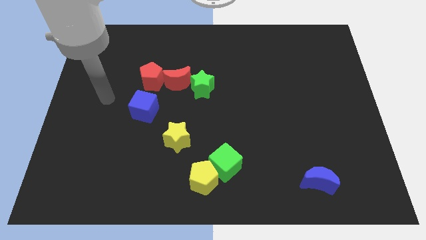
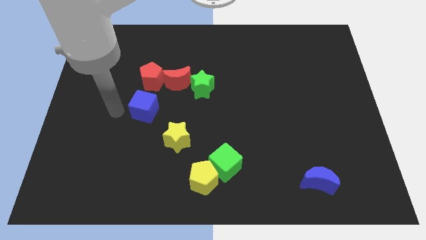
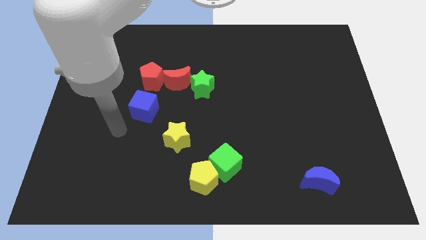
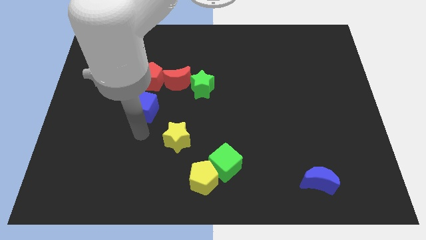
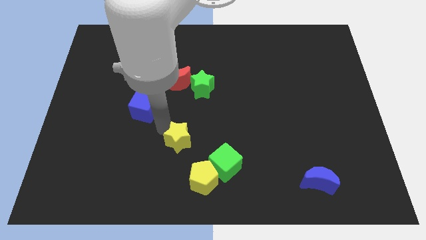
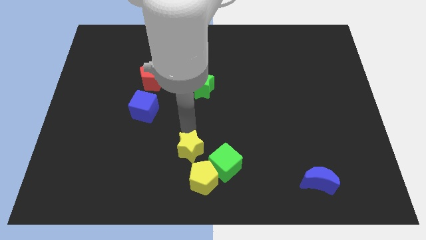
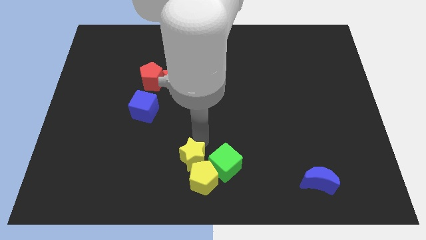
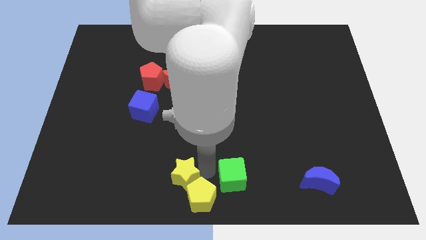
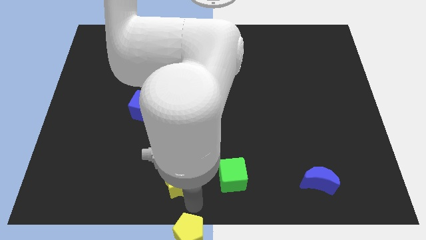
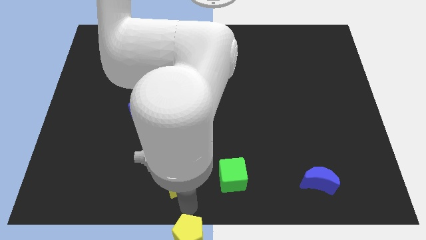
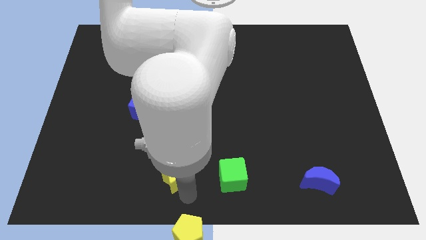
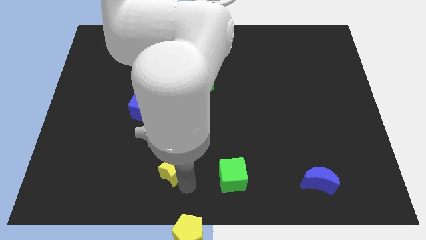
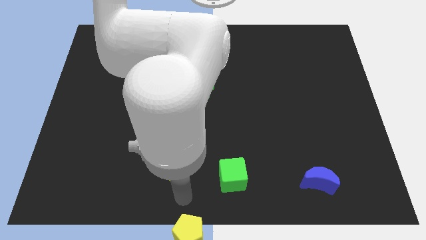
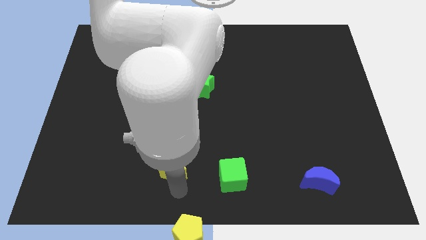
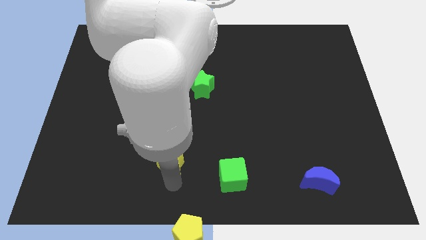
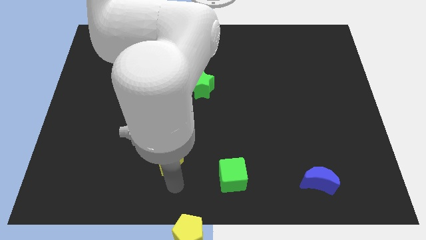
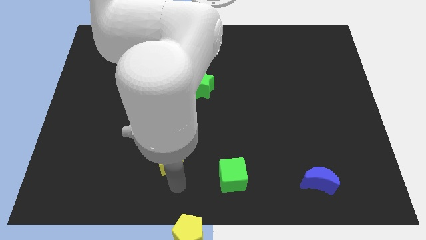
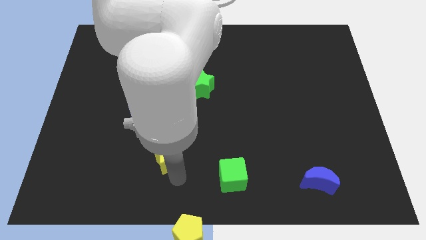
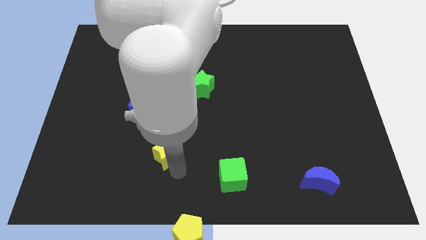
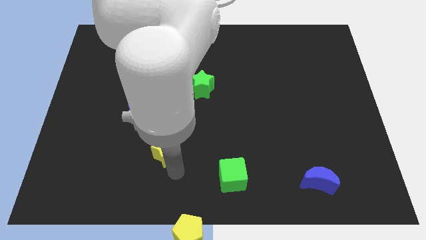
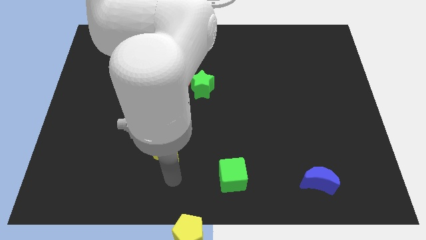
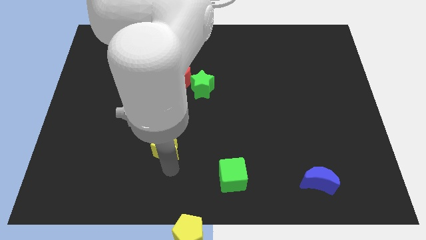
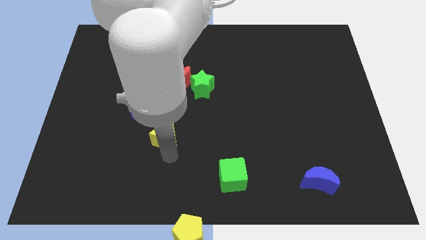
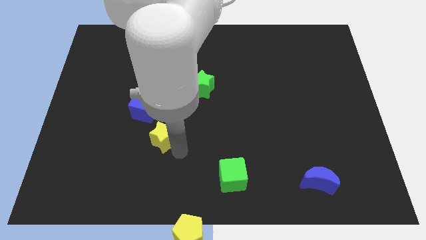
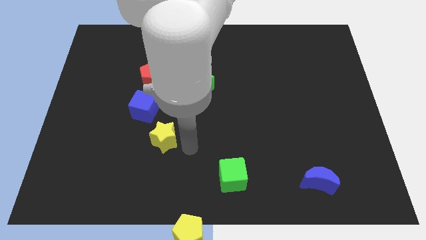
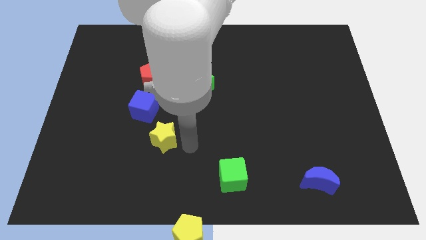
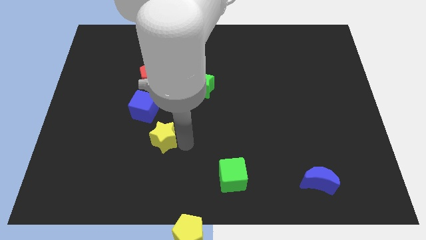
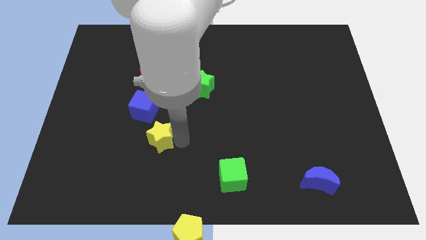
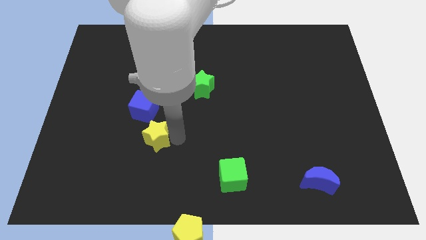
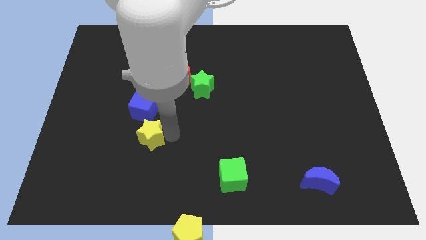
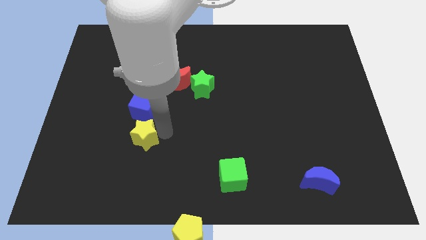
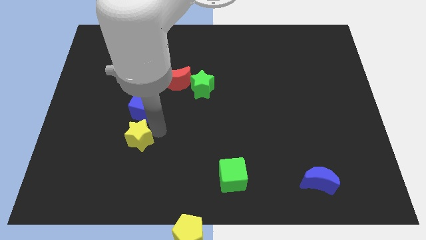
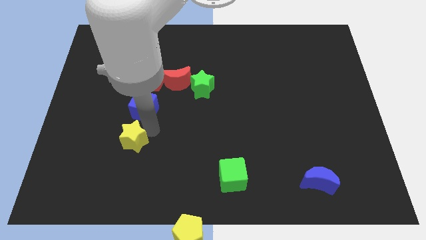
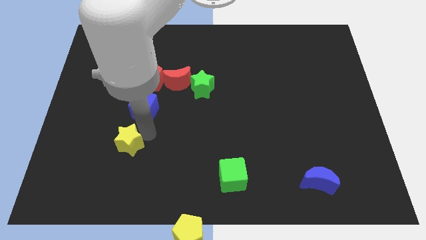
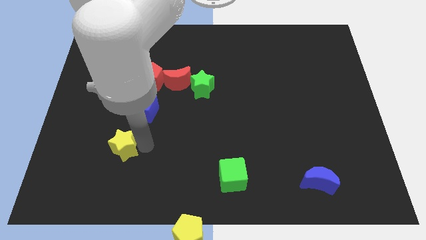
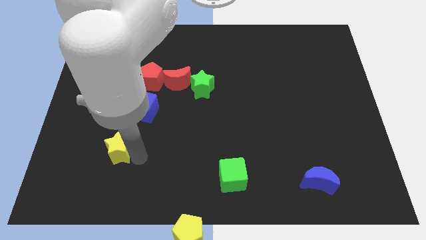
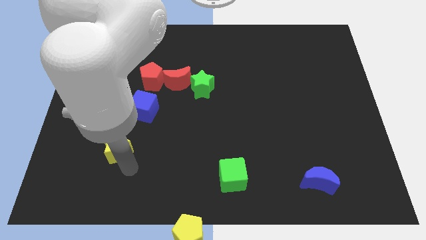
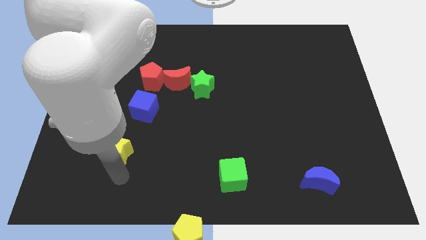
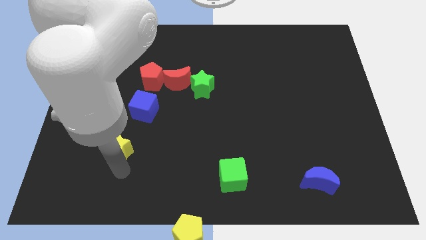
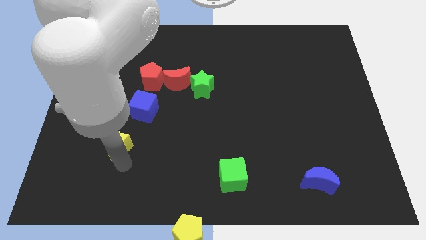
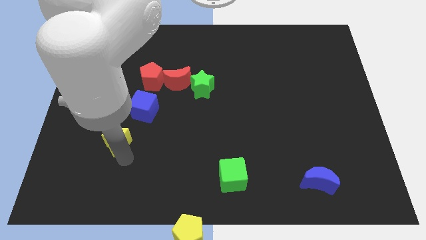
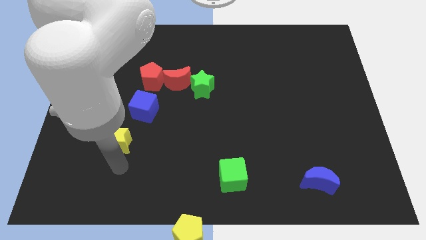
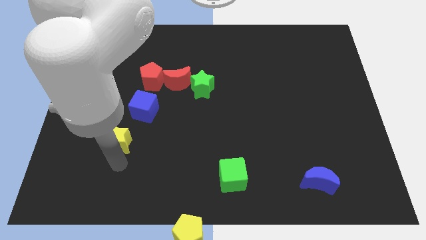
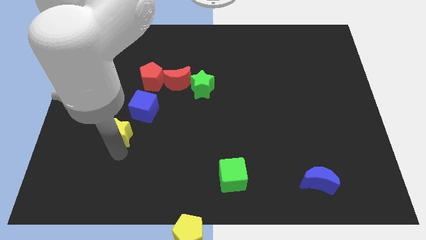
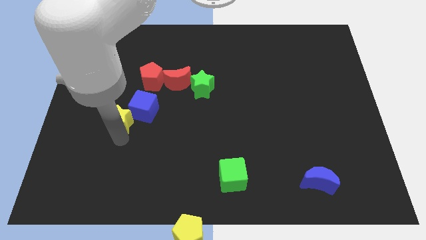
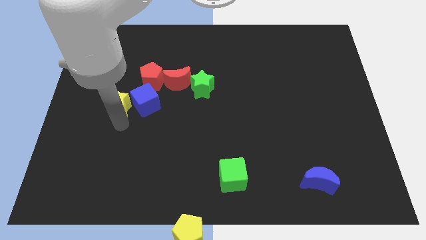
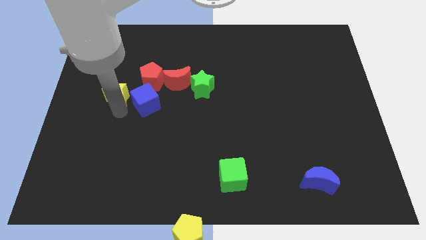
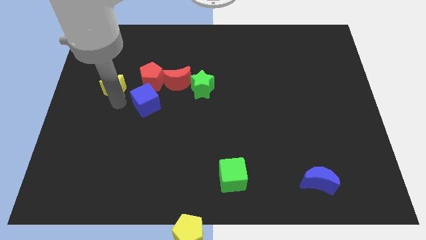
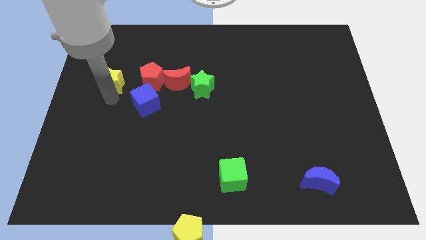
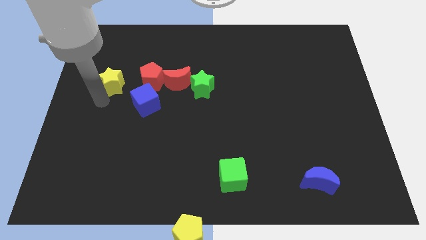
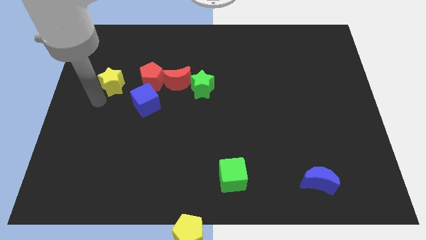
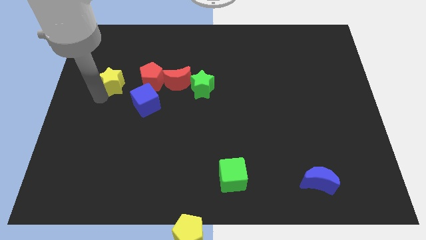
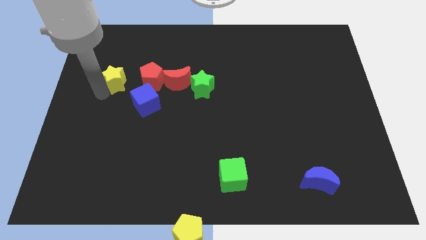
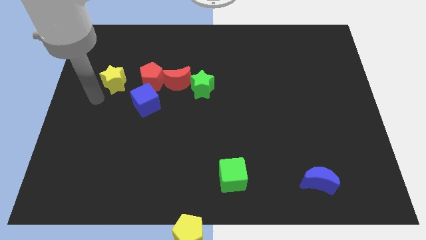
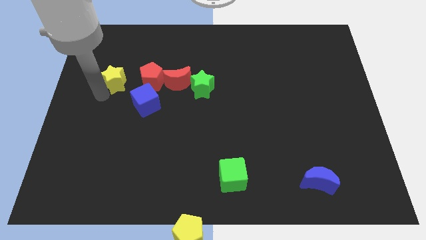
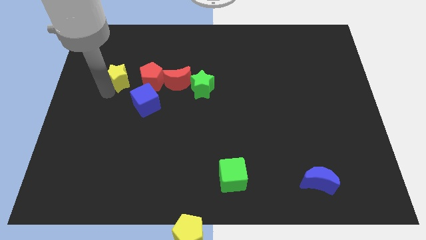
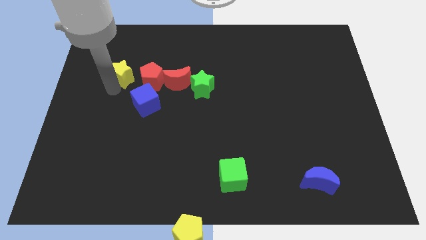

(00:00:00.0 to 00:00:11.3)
put the yellow star to the top left side of the red pentagon

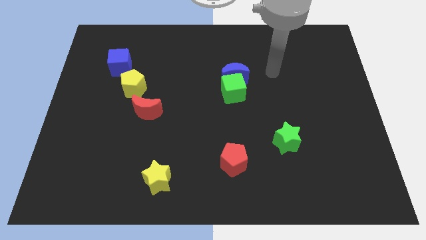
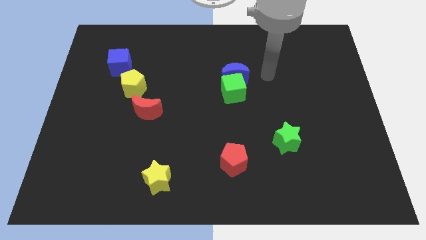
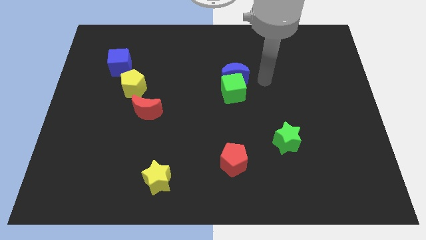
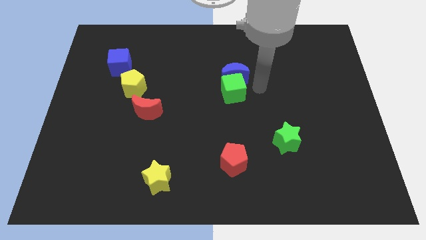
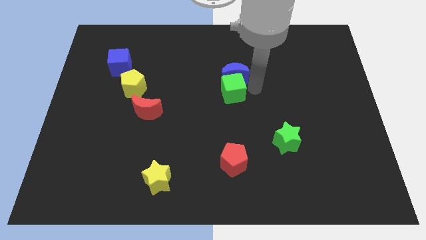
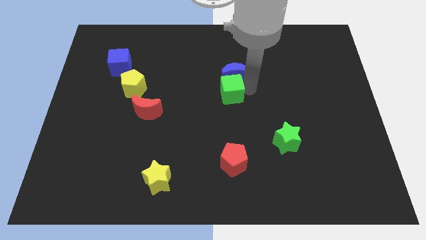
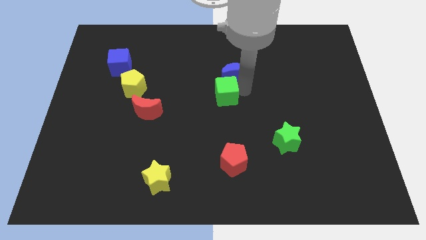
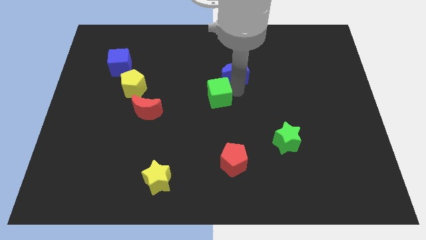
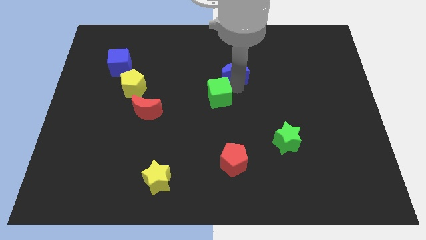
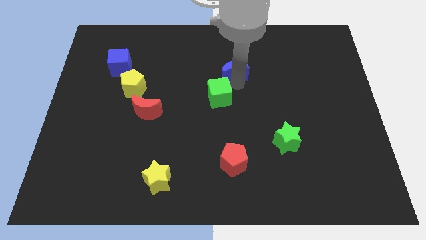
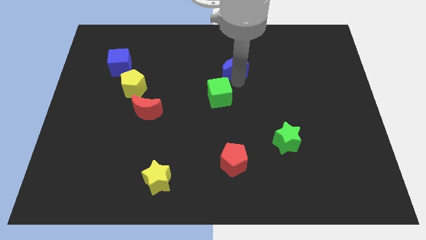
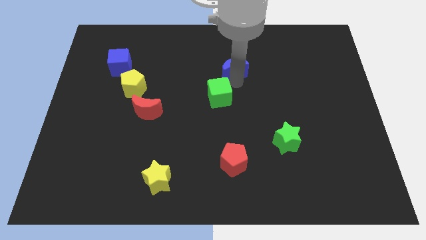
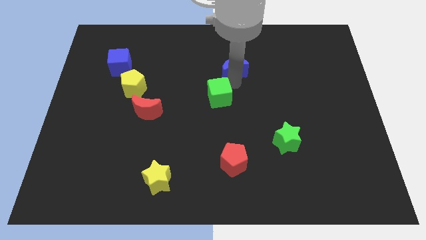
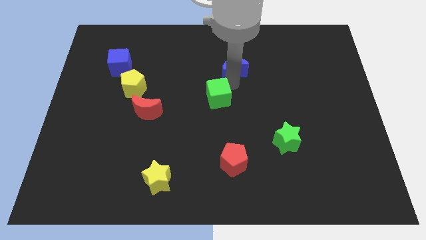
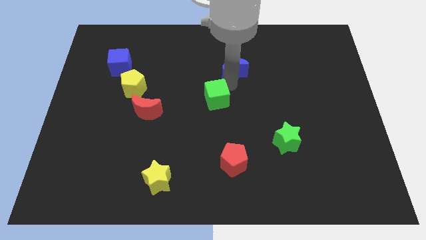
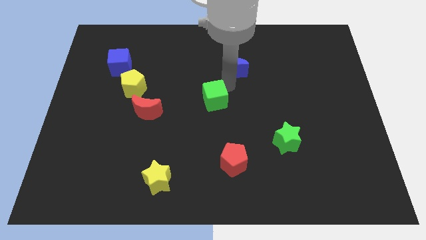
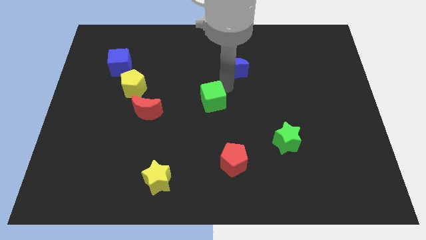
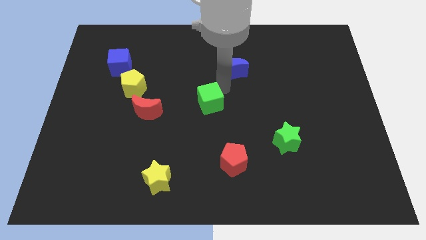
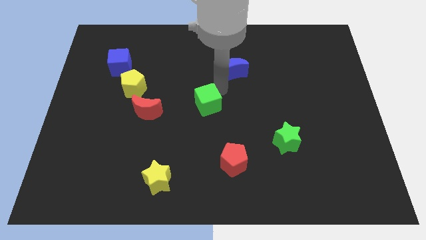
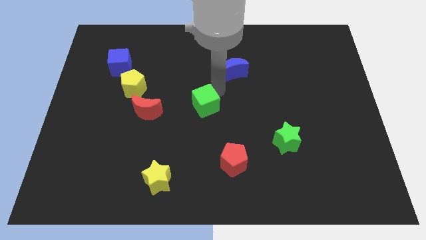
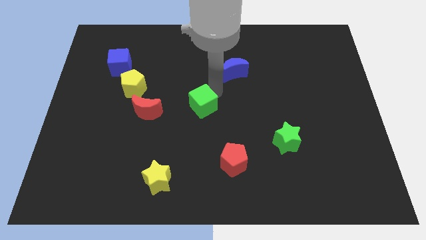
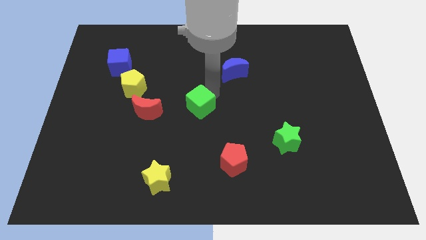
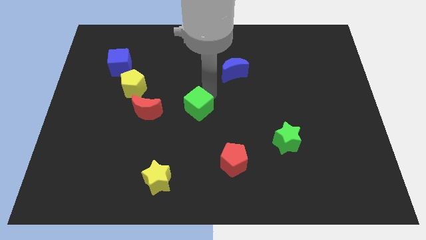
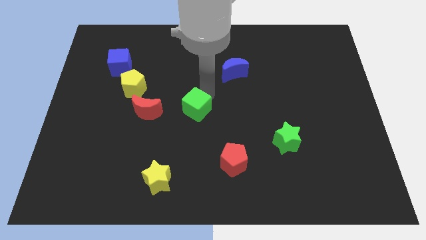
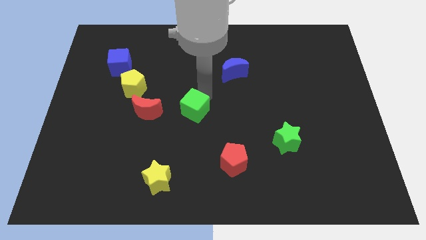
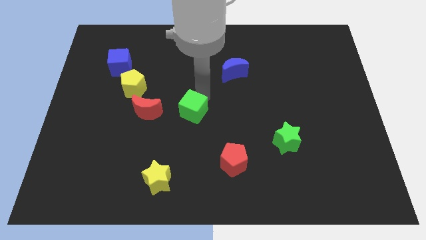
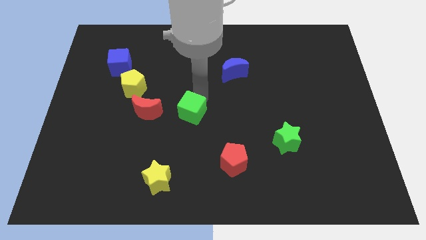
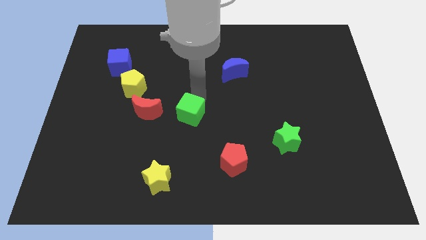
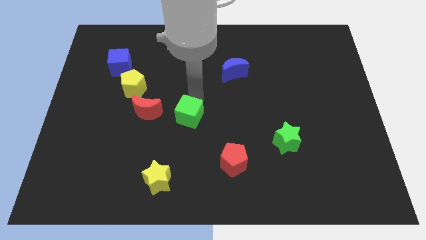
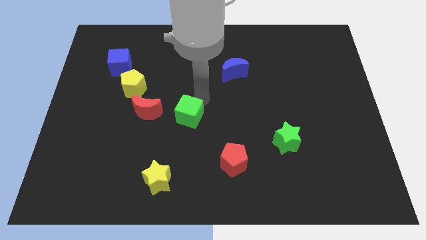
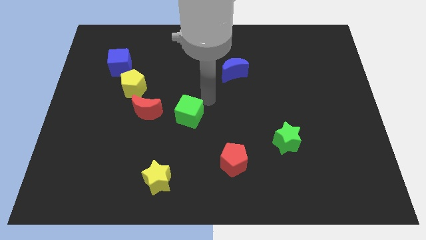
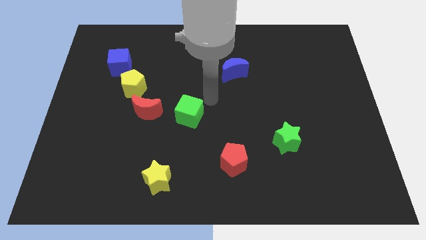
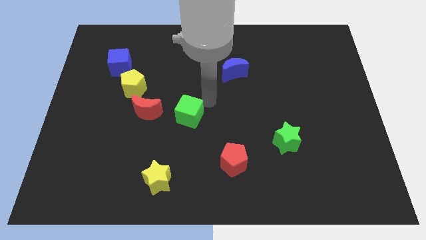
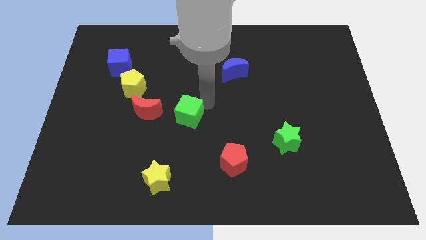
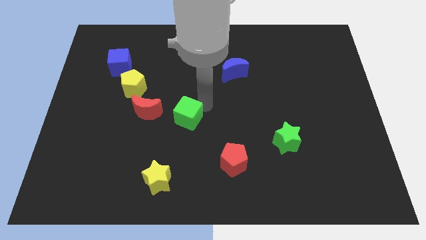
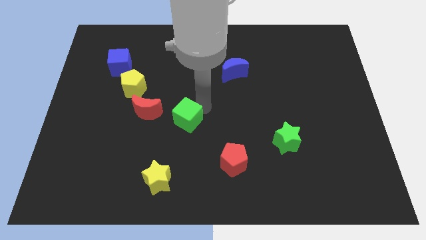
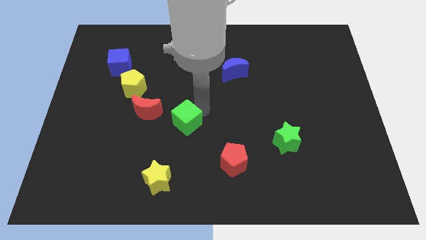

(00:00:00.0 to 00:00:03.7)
push the green cube to the bottom right of the red moon
